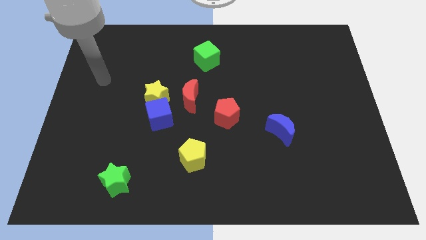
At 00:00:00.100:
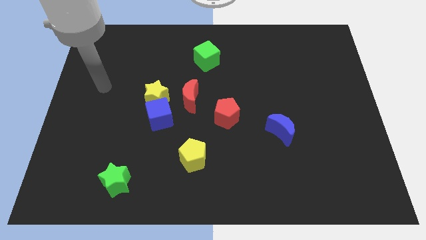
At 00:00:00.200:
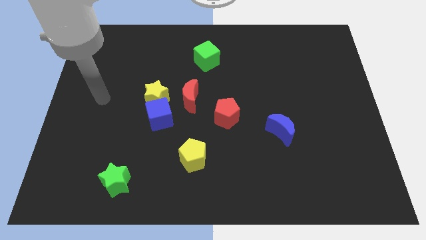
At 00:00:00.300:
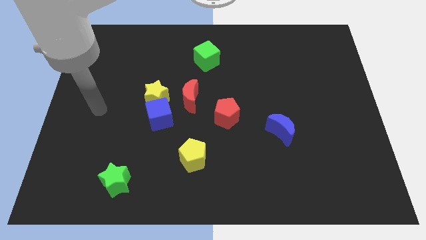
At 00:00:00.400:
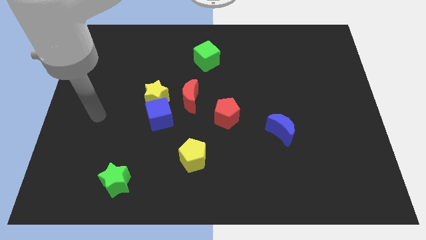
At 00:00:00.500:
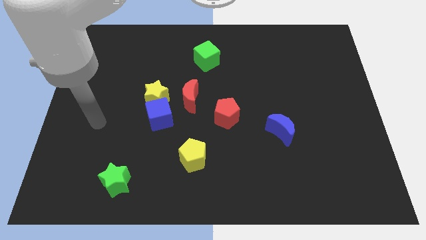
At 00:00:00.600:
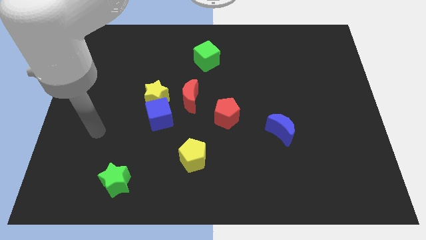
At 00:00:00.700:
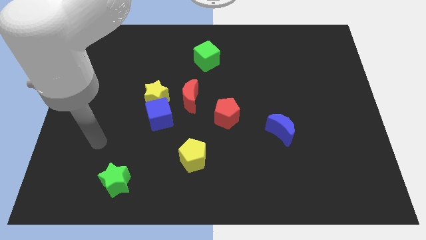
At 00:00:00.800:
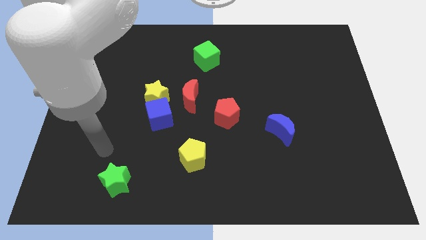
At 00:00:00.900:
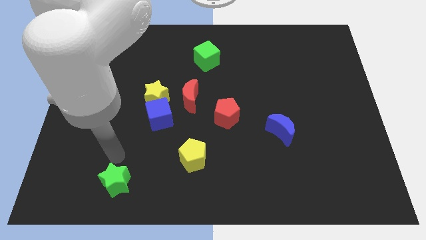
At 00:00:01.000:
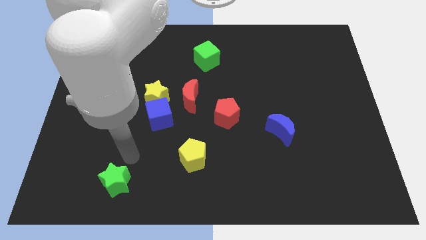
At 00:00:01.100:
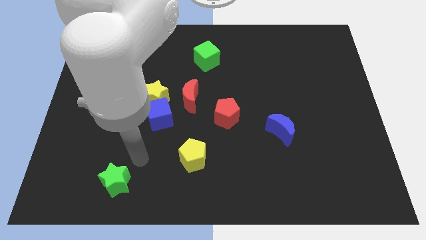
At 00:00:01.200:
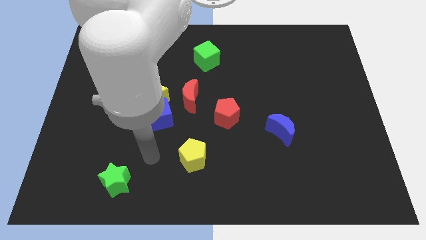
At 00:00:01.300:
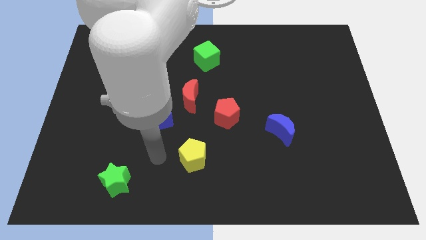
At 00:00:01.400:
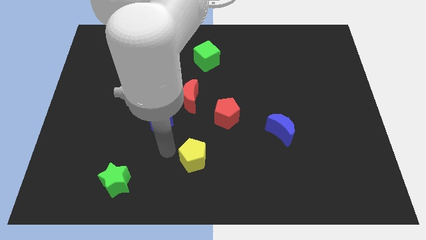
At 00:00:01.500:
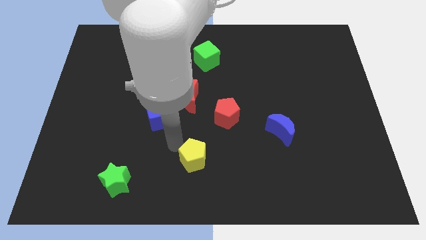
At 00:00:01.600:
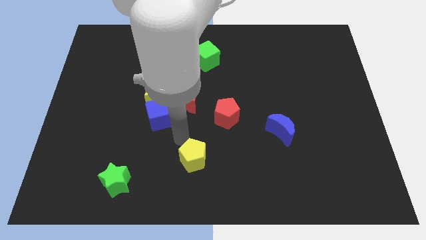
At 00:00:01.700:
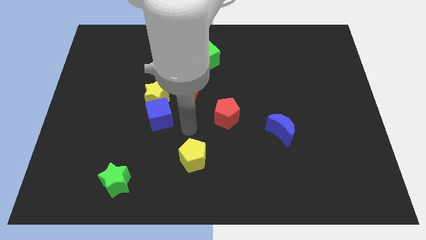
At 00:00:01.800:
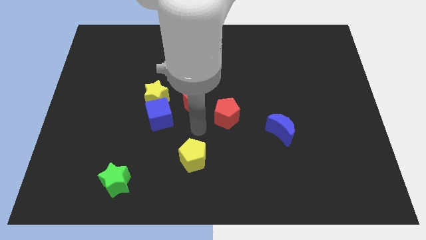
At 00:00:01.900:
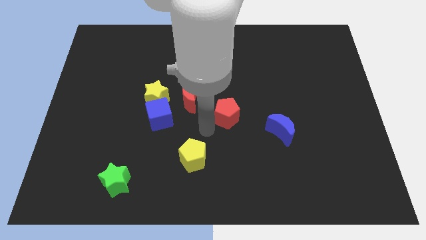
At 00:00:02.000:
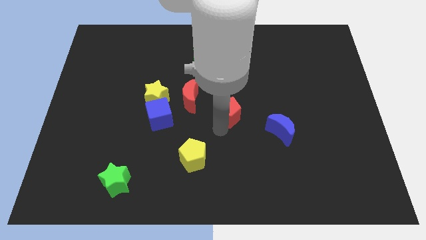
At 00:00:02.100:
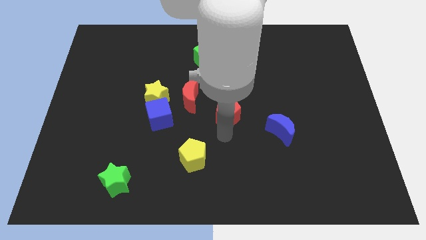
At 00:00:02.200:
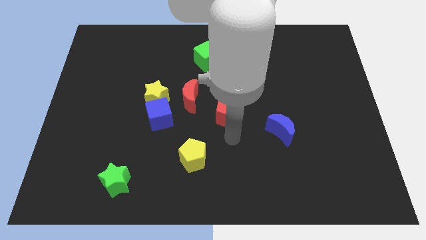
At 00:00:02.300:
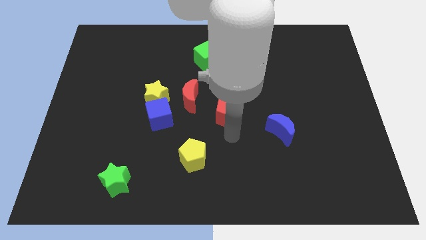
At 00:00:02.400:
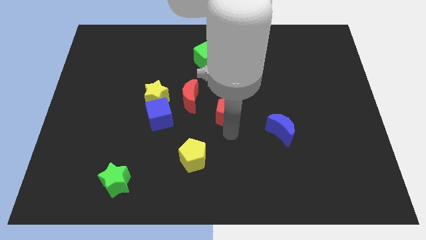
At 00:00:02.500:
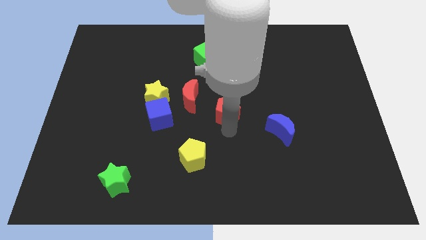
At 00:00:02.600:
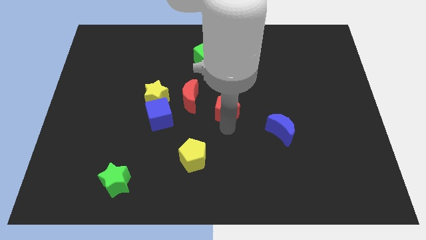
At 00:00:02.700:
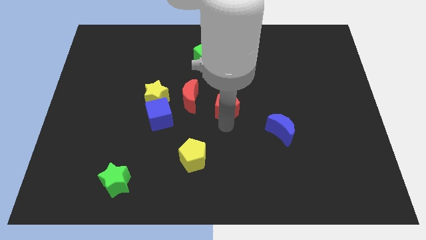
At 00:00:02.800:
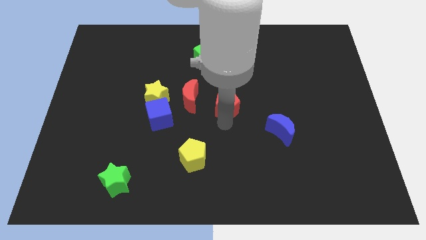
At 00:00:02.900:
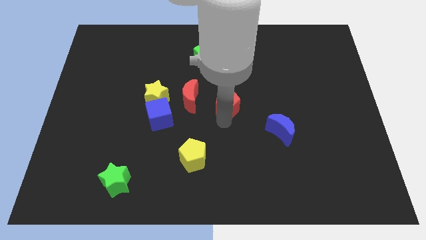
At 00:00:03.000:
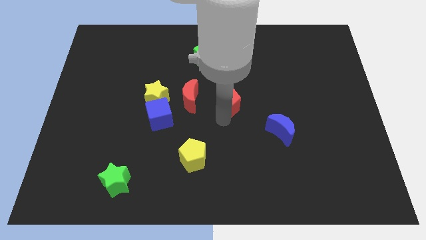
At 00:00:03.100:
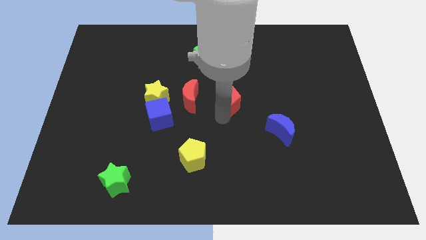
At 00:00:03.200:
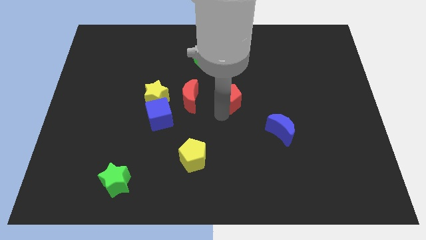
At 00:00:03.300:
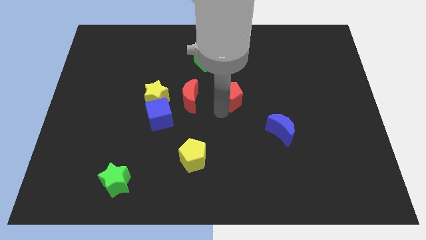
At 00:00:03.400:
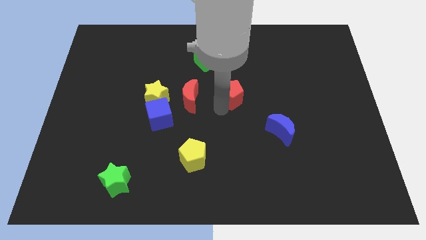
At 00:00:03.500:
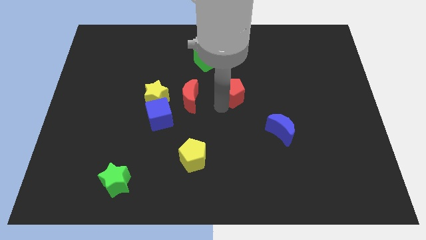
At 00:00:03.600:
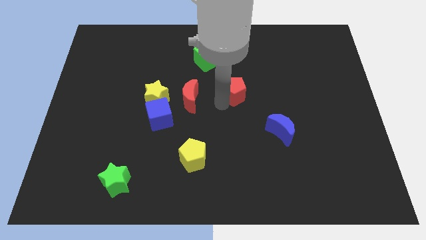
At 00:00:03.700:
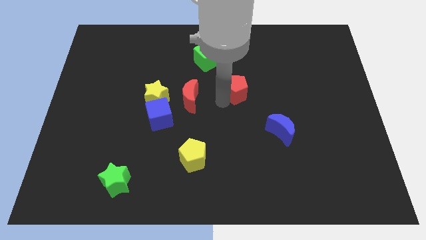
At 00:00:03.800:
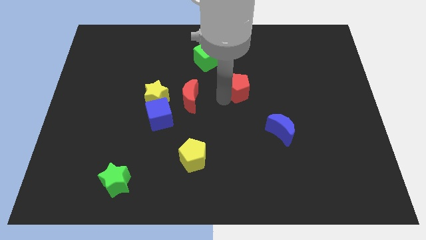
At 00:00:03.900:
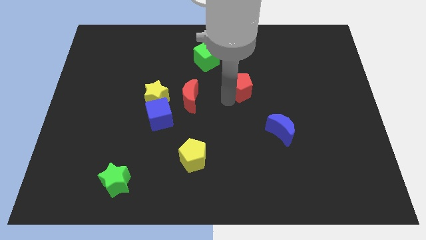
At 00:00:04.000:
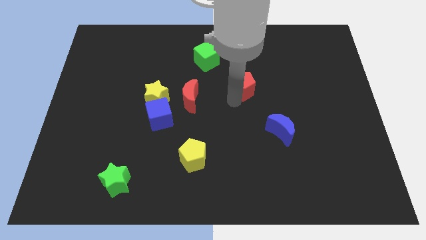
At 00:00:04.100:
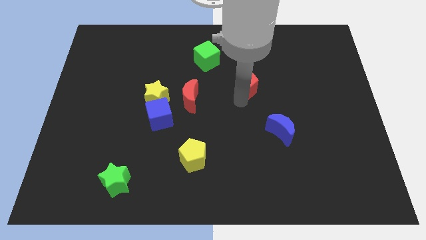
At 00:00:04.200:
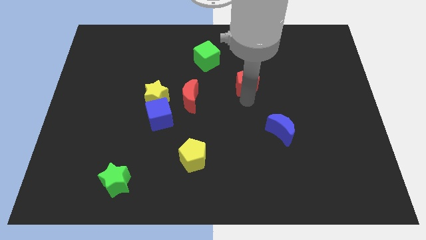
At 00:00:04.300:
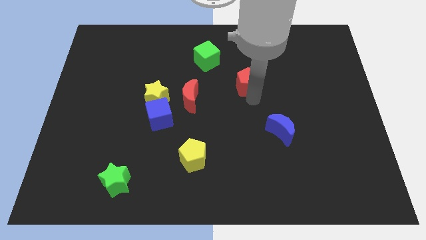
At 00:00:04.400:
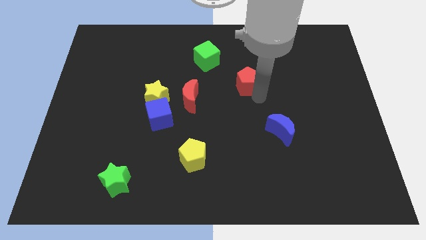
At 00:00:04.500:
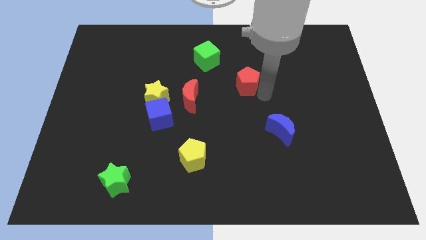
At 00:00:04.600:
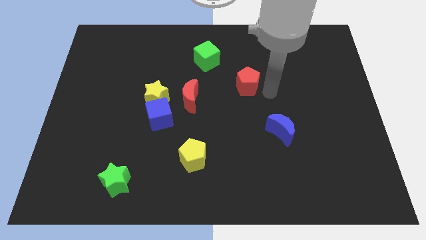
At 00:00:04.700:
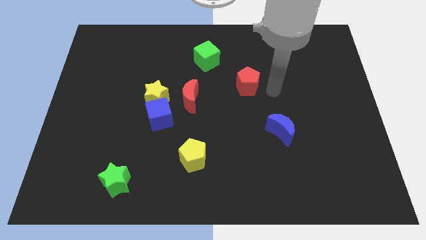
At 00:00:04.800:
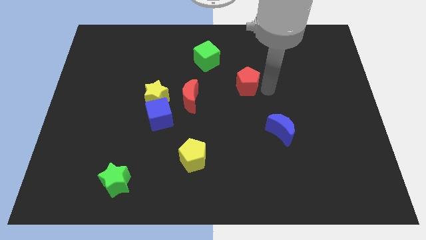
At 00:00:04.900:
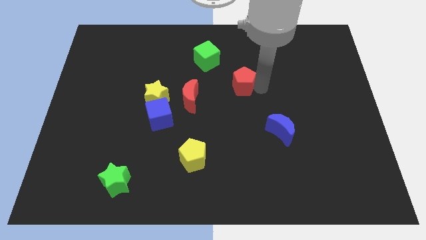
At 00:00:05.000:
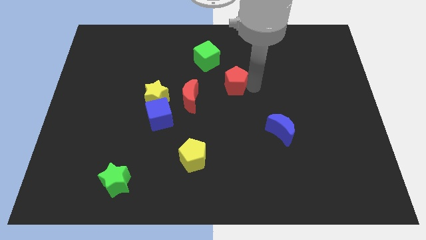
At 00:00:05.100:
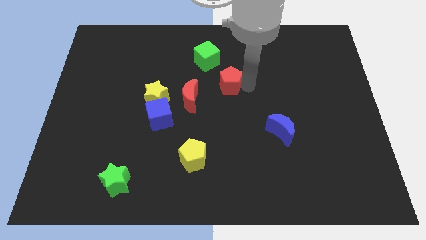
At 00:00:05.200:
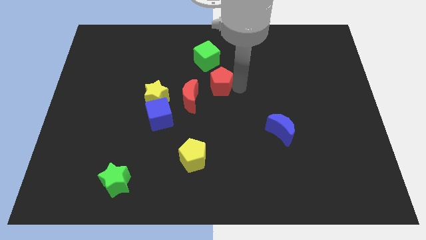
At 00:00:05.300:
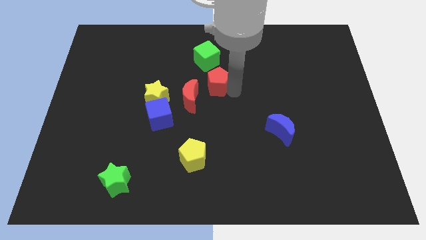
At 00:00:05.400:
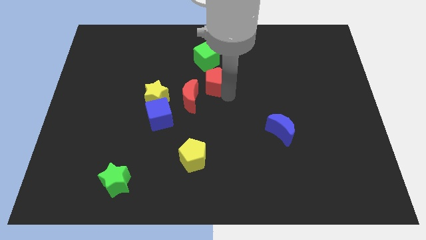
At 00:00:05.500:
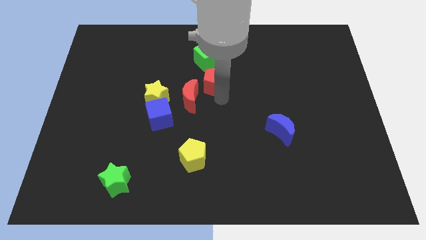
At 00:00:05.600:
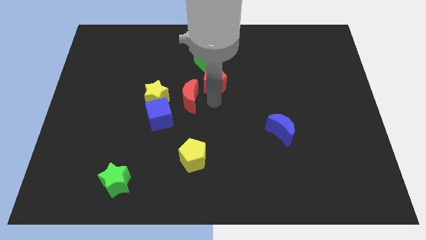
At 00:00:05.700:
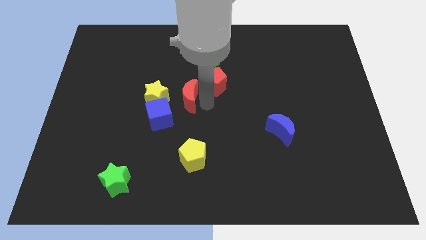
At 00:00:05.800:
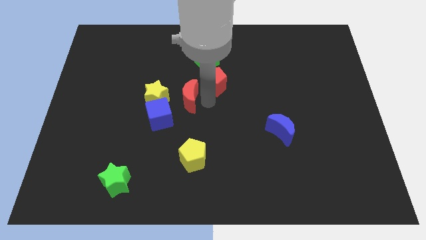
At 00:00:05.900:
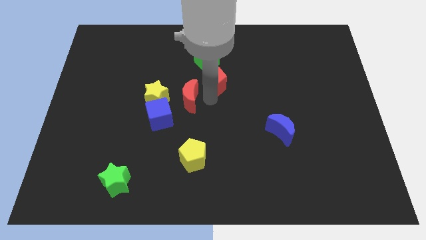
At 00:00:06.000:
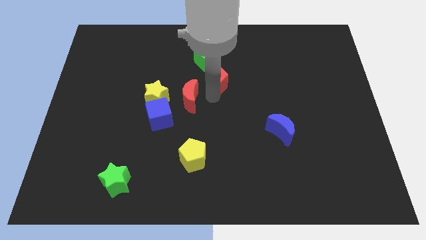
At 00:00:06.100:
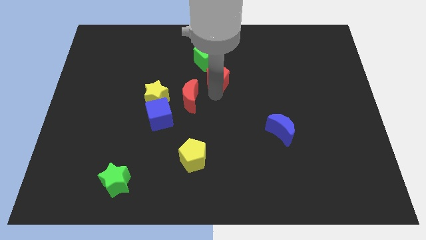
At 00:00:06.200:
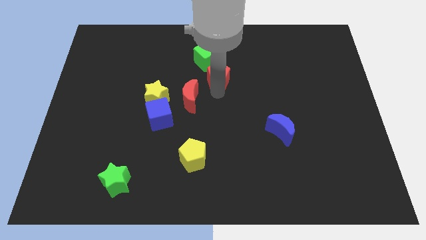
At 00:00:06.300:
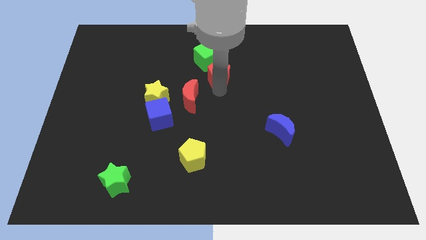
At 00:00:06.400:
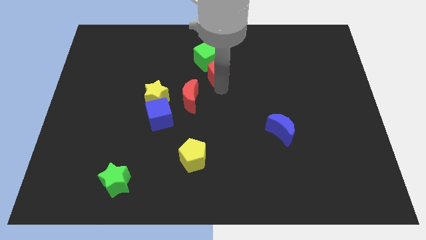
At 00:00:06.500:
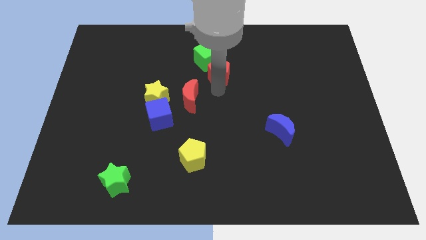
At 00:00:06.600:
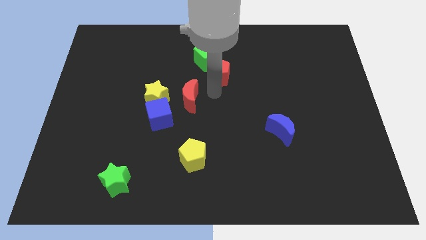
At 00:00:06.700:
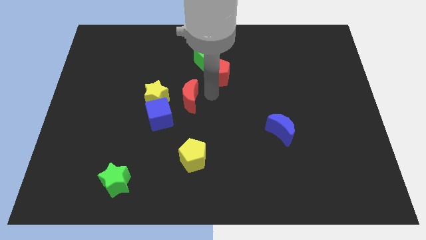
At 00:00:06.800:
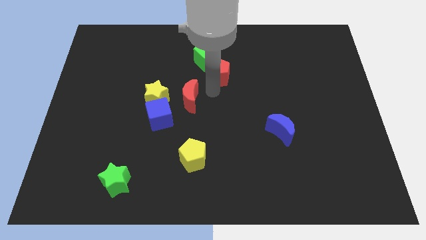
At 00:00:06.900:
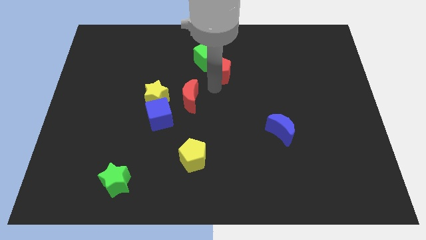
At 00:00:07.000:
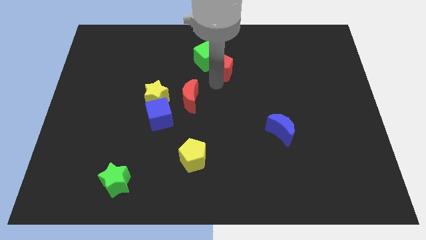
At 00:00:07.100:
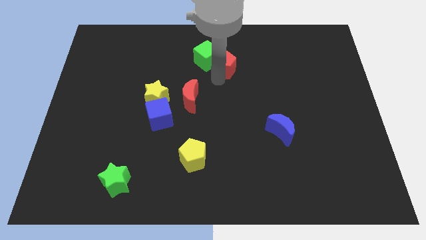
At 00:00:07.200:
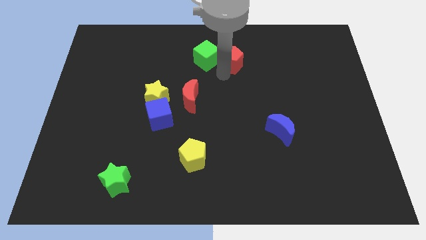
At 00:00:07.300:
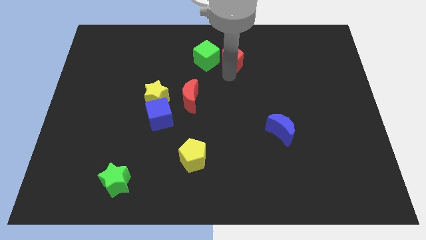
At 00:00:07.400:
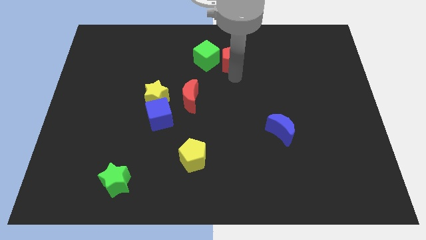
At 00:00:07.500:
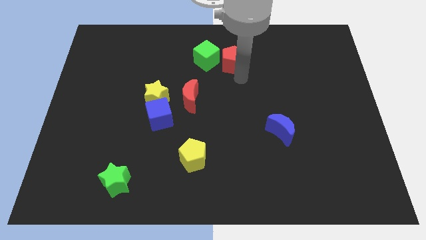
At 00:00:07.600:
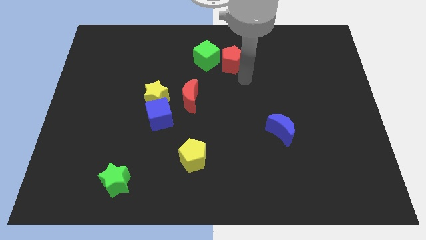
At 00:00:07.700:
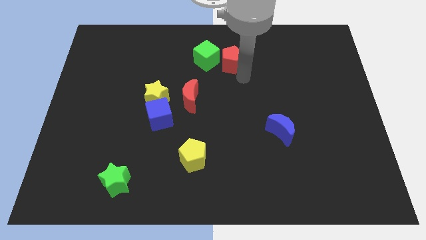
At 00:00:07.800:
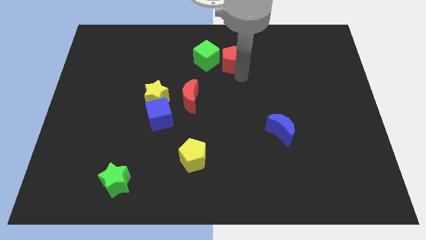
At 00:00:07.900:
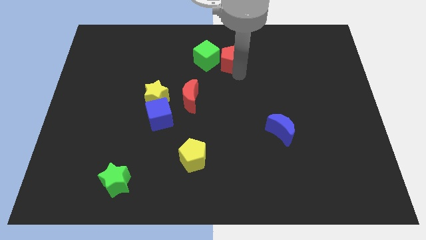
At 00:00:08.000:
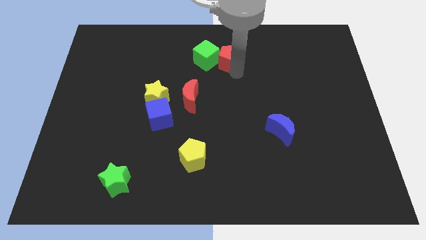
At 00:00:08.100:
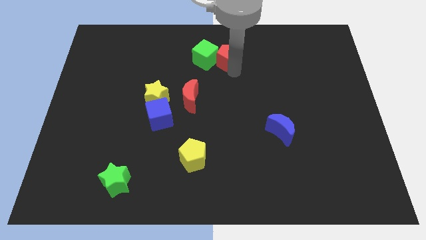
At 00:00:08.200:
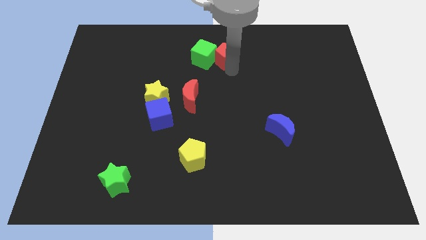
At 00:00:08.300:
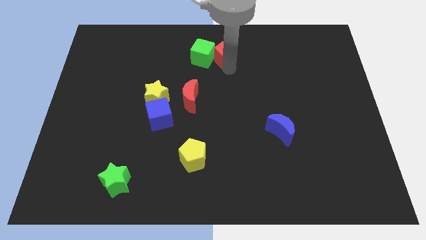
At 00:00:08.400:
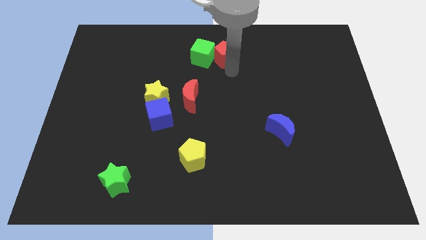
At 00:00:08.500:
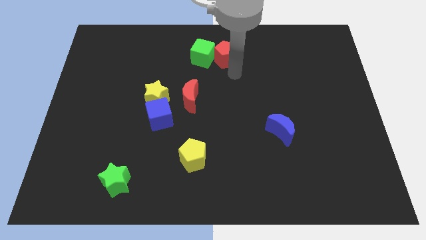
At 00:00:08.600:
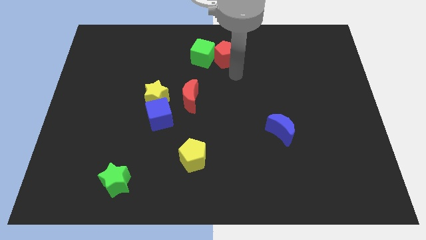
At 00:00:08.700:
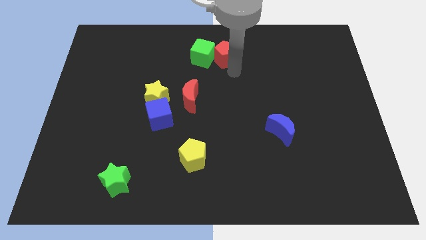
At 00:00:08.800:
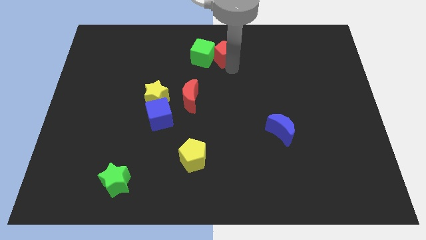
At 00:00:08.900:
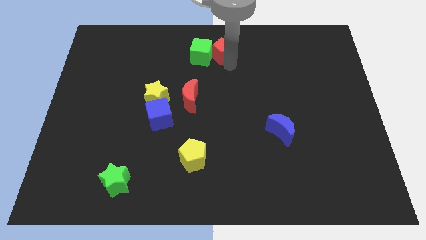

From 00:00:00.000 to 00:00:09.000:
push the red pentagon to the top side
